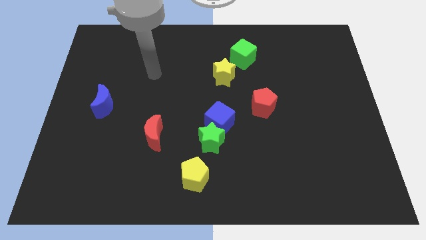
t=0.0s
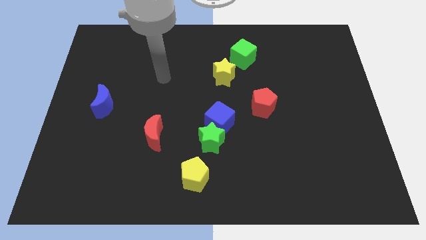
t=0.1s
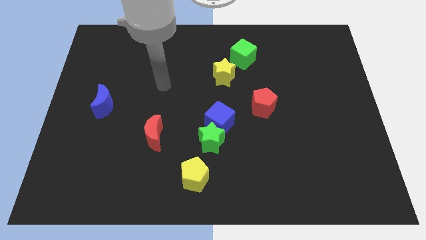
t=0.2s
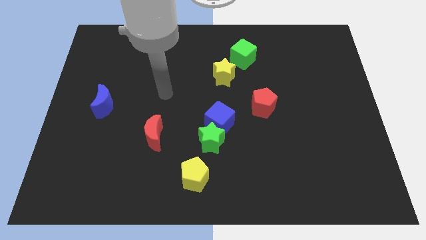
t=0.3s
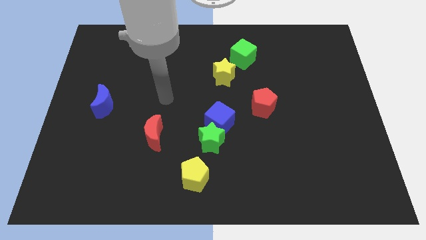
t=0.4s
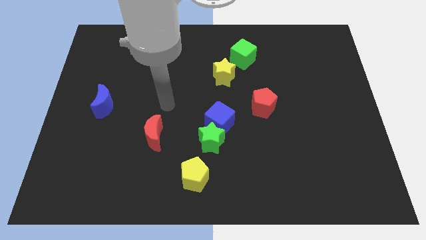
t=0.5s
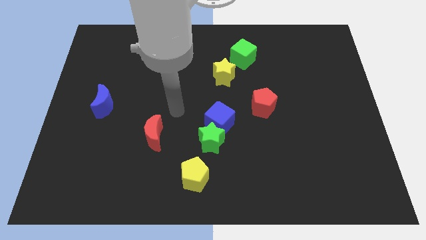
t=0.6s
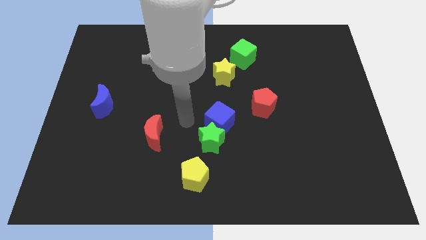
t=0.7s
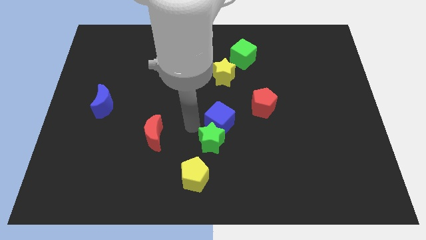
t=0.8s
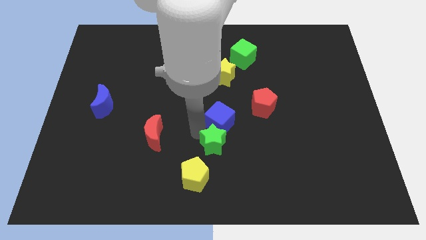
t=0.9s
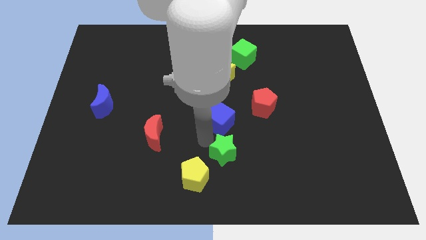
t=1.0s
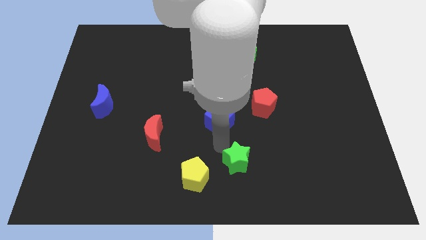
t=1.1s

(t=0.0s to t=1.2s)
move the blue cube away from the green star

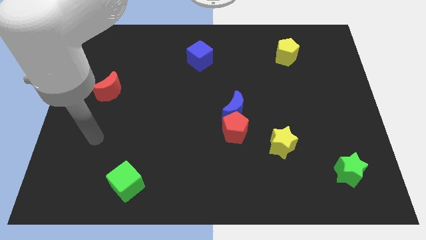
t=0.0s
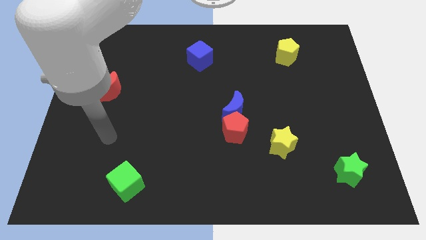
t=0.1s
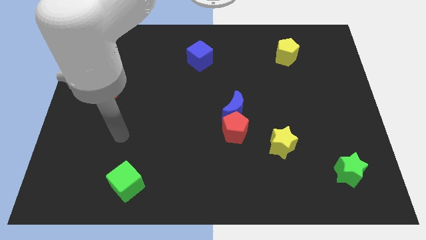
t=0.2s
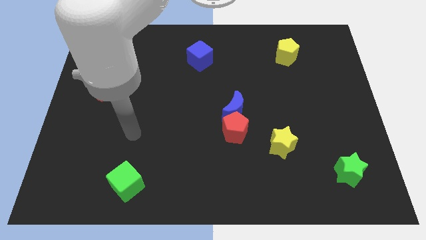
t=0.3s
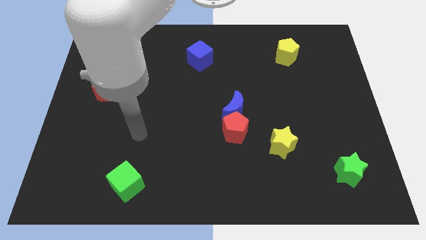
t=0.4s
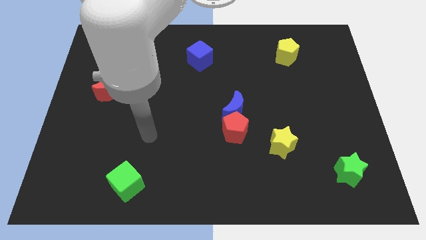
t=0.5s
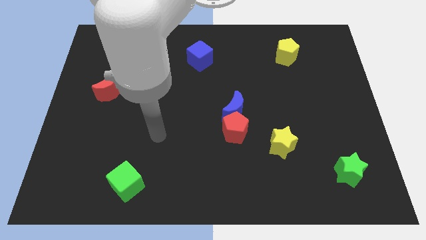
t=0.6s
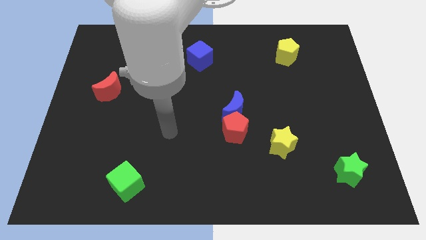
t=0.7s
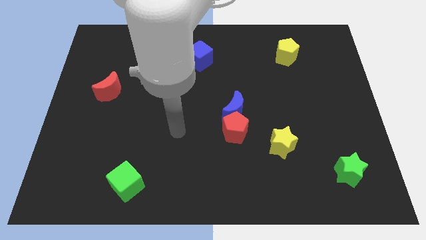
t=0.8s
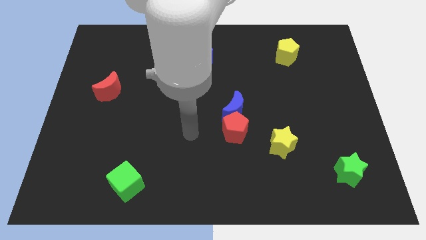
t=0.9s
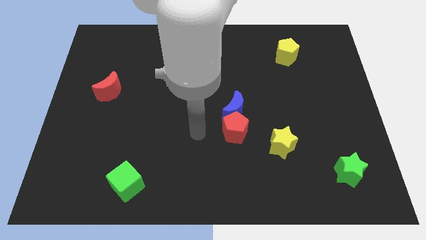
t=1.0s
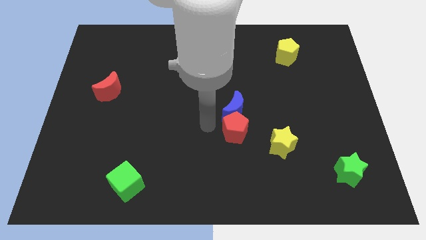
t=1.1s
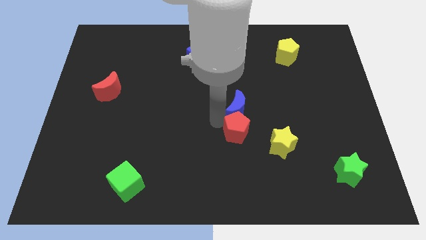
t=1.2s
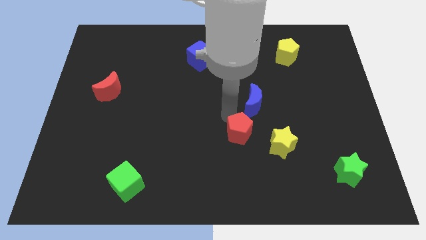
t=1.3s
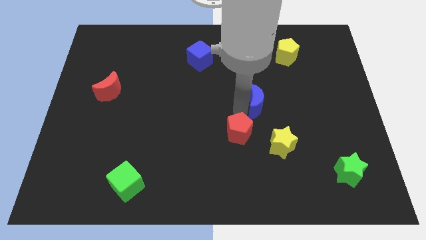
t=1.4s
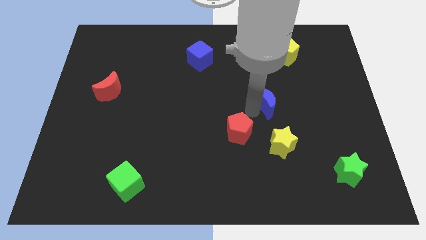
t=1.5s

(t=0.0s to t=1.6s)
pull the red pentagon apart from the blue moon

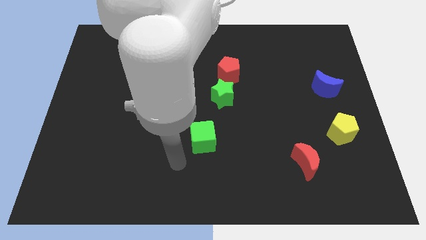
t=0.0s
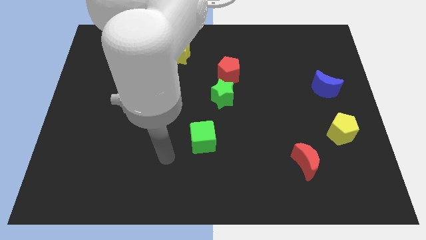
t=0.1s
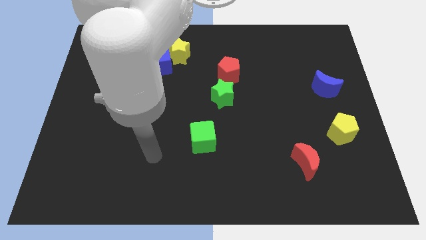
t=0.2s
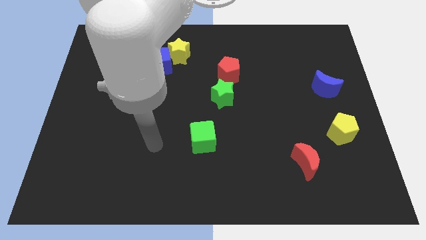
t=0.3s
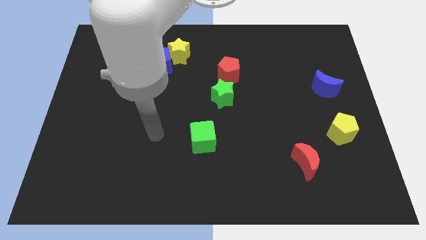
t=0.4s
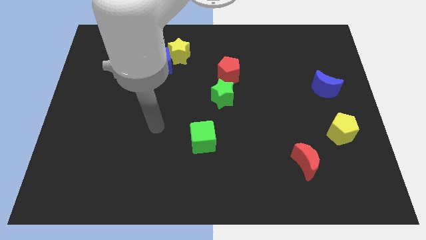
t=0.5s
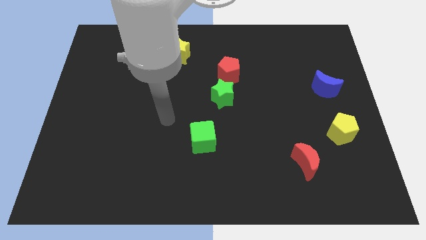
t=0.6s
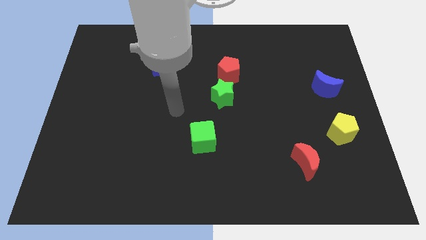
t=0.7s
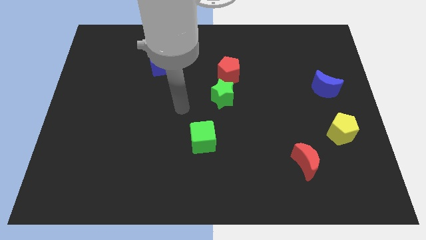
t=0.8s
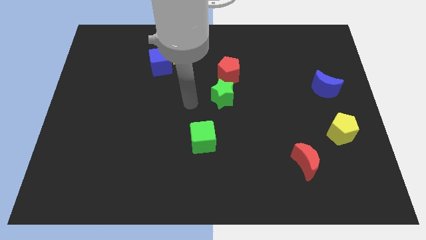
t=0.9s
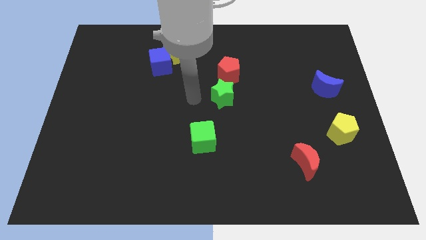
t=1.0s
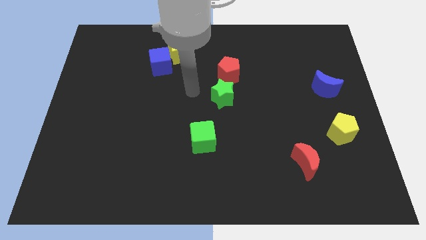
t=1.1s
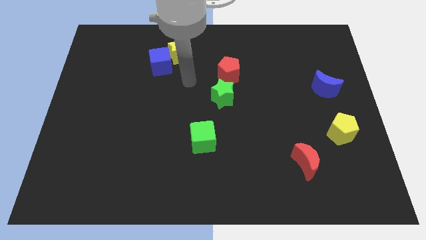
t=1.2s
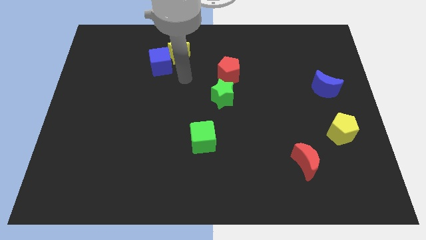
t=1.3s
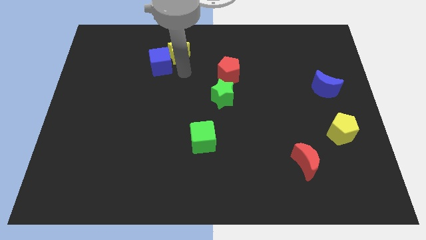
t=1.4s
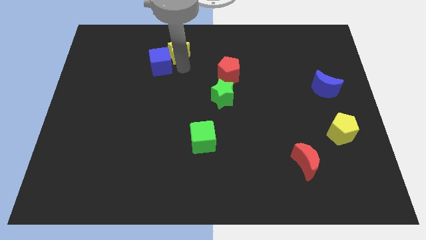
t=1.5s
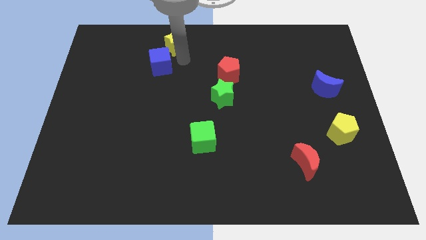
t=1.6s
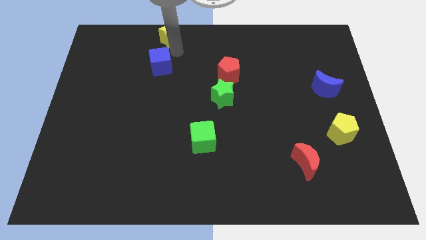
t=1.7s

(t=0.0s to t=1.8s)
move the blue cube away from the yellow star

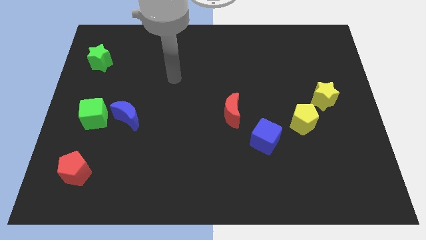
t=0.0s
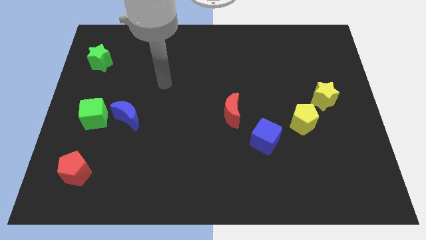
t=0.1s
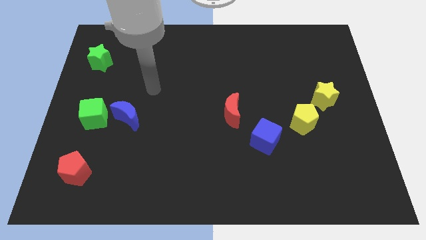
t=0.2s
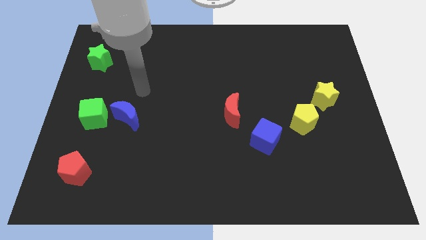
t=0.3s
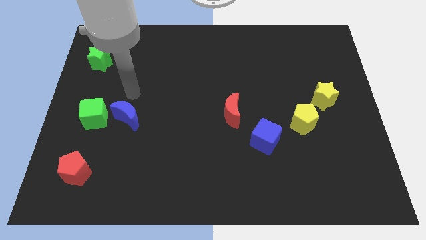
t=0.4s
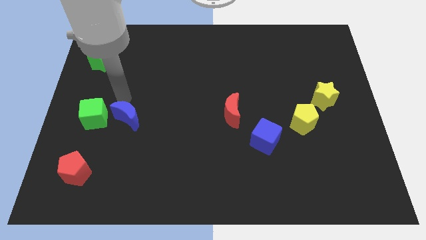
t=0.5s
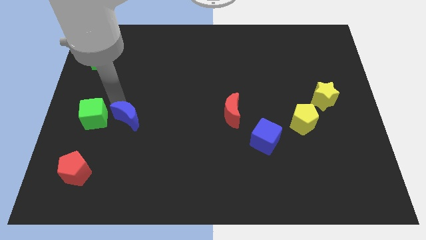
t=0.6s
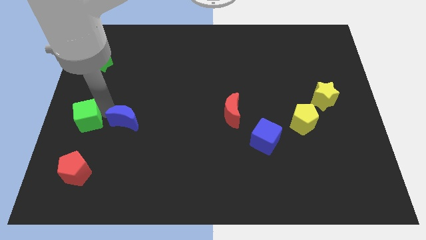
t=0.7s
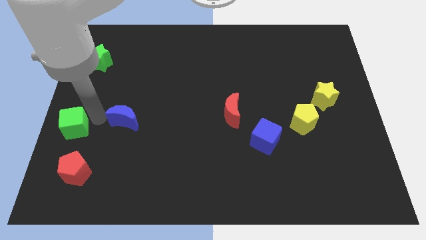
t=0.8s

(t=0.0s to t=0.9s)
move the blue moon away from the green cube

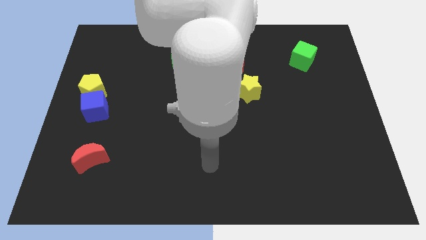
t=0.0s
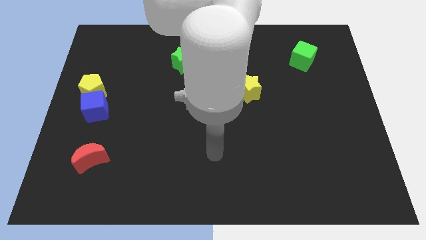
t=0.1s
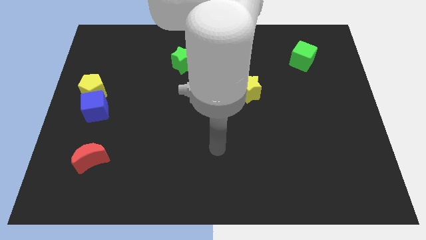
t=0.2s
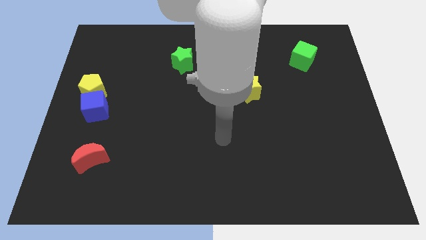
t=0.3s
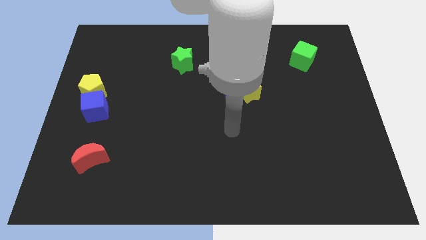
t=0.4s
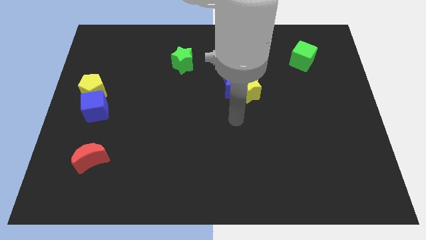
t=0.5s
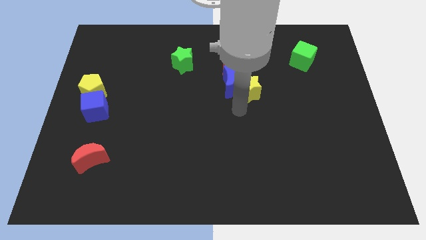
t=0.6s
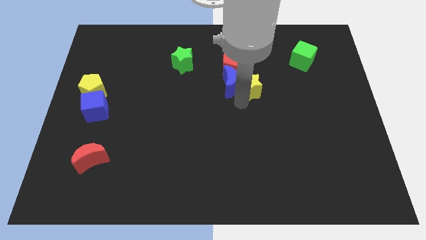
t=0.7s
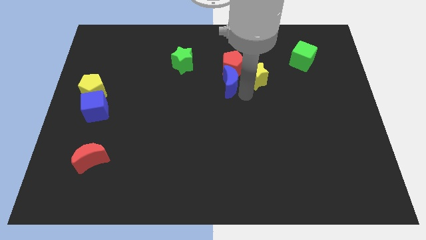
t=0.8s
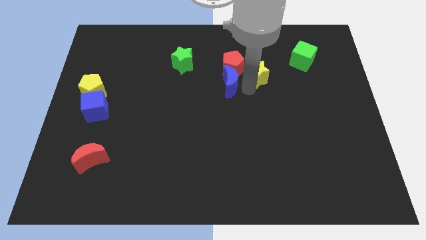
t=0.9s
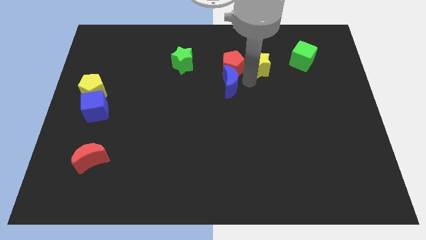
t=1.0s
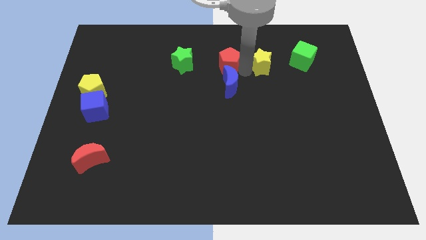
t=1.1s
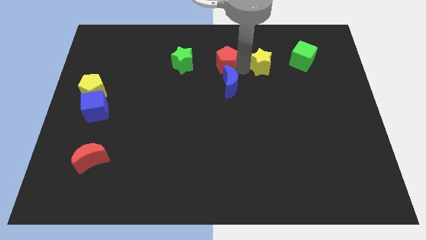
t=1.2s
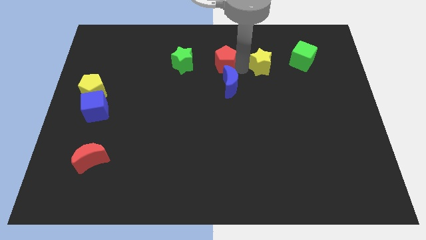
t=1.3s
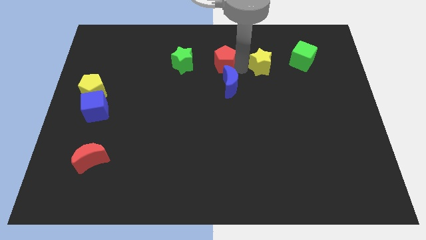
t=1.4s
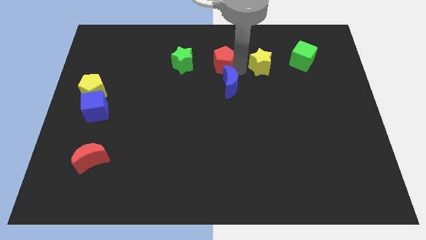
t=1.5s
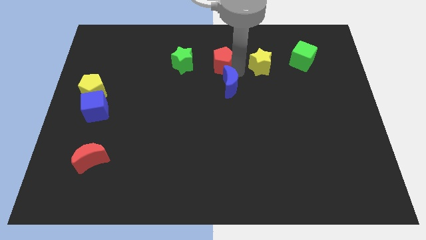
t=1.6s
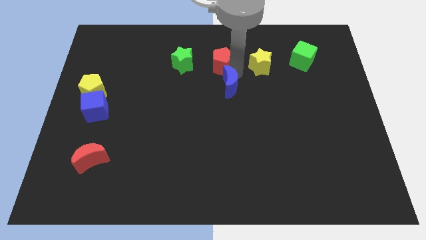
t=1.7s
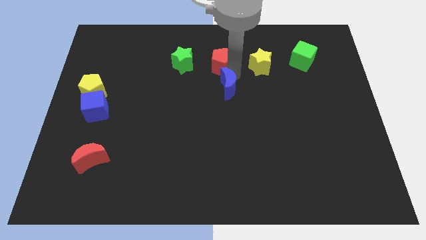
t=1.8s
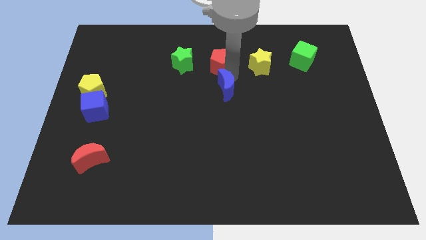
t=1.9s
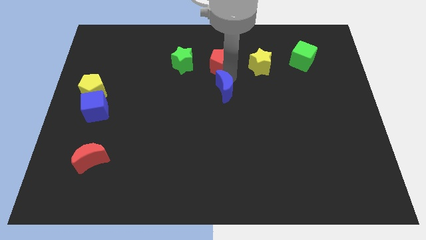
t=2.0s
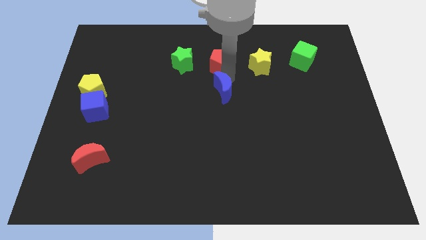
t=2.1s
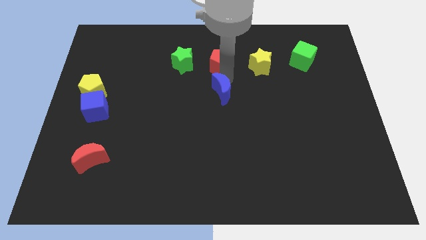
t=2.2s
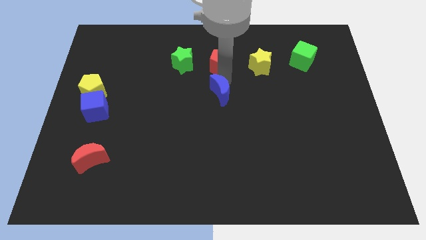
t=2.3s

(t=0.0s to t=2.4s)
pull the blue moon apart from the yellow star and red pentagon

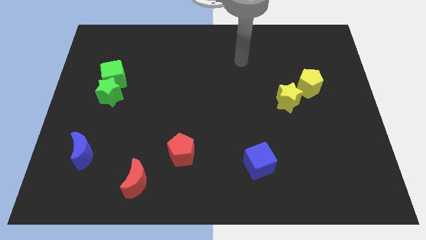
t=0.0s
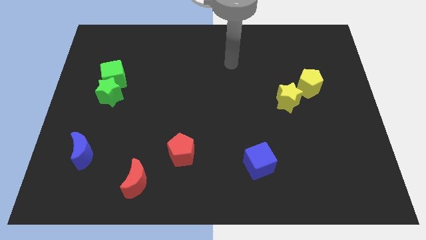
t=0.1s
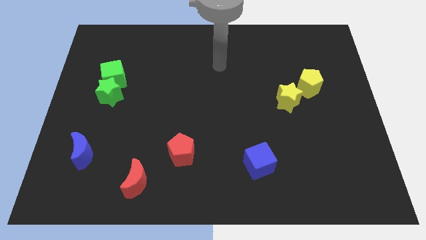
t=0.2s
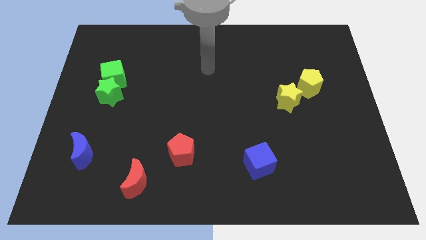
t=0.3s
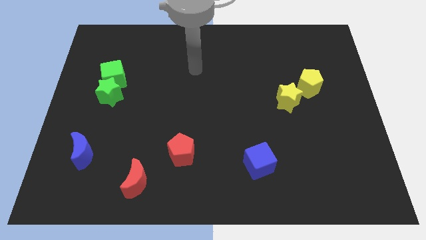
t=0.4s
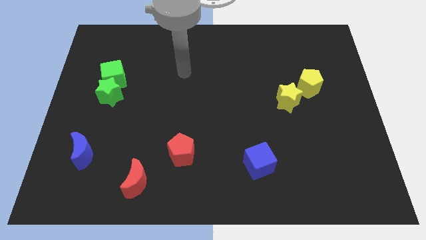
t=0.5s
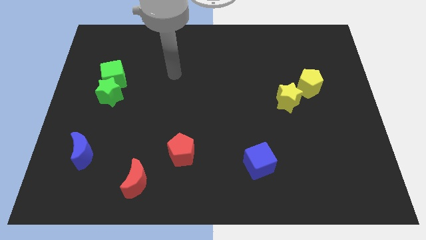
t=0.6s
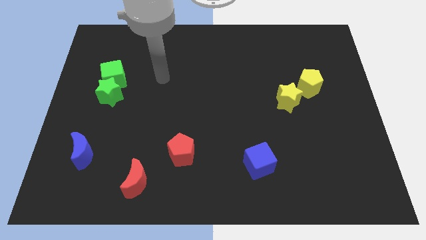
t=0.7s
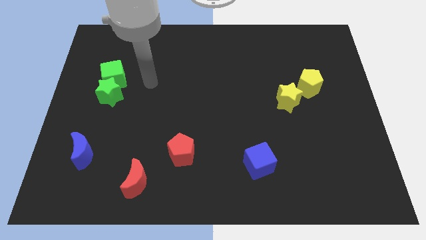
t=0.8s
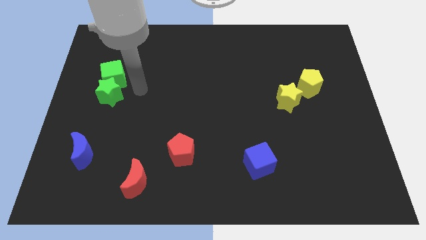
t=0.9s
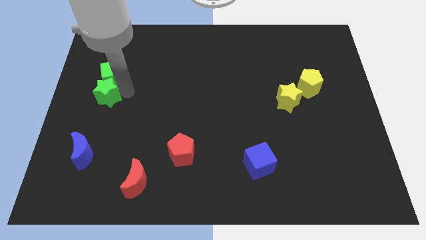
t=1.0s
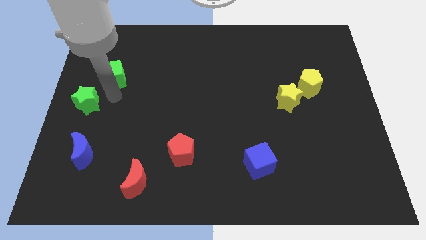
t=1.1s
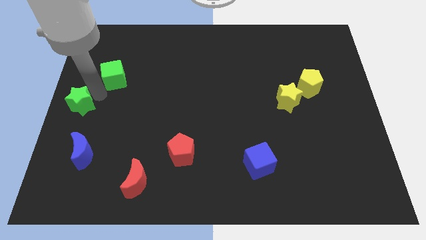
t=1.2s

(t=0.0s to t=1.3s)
separate the green cube from the green star
